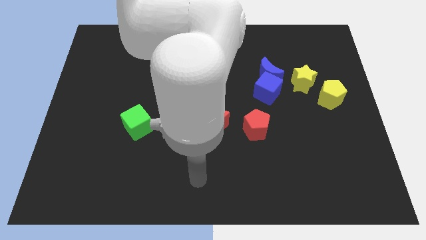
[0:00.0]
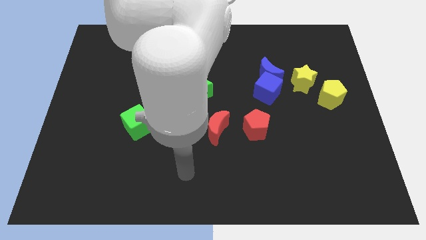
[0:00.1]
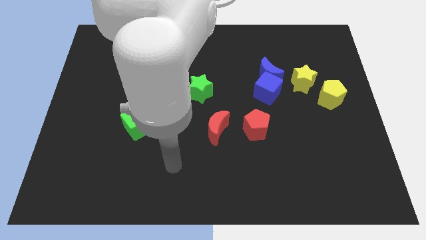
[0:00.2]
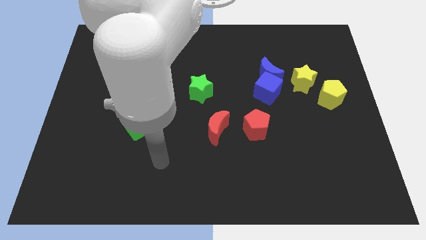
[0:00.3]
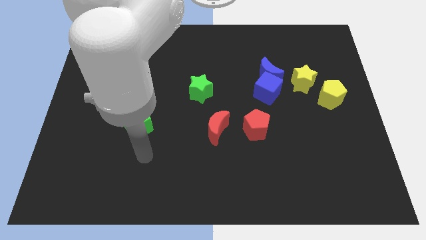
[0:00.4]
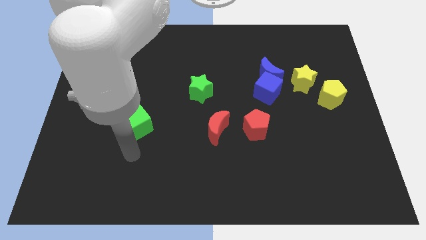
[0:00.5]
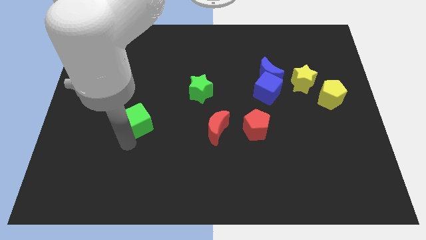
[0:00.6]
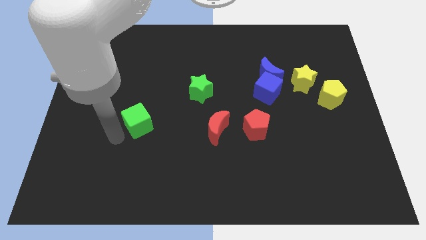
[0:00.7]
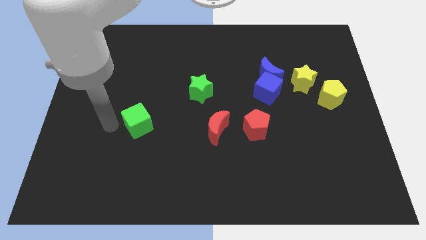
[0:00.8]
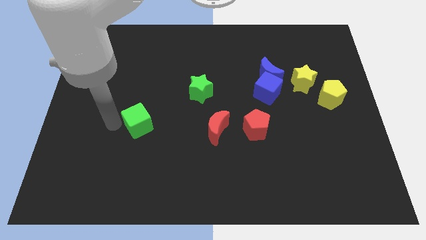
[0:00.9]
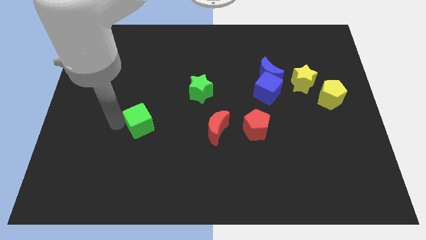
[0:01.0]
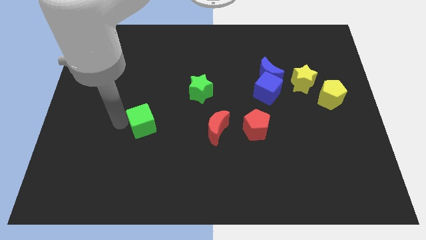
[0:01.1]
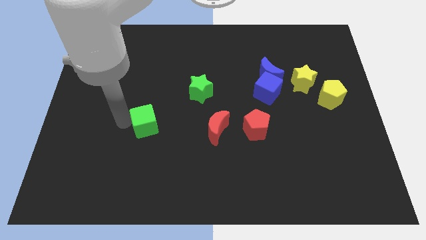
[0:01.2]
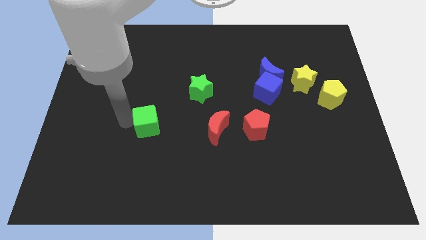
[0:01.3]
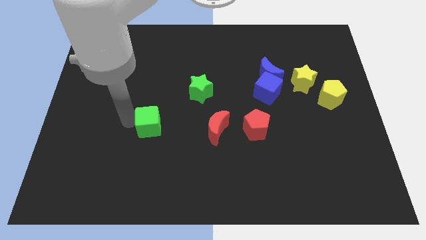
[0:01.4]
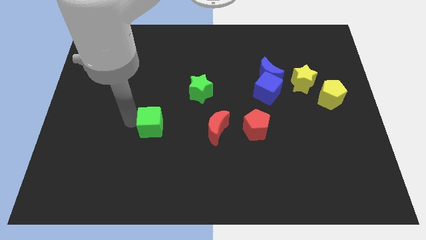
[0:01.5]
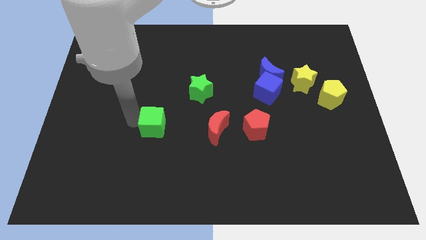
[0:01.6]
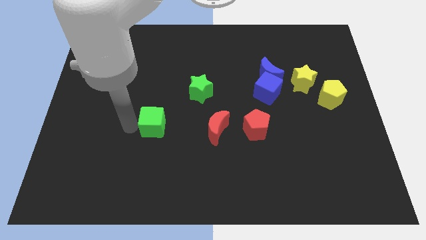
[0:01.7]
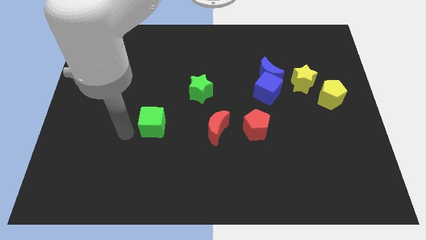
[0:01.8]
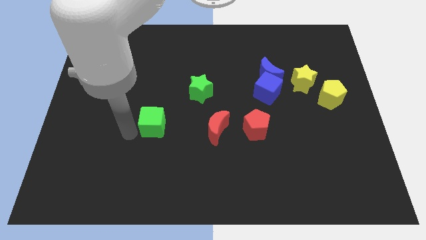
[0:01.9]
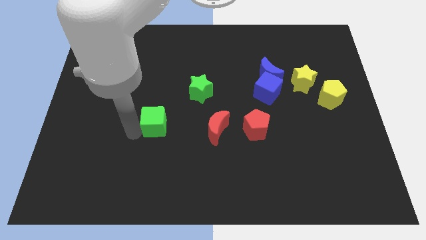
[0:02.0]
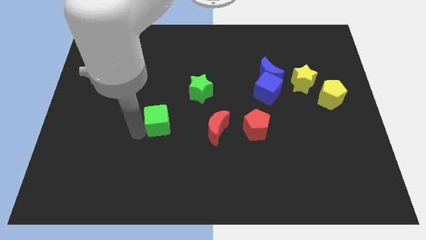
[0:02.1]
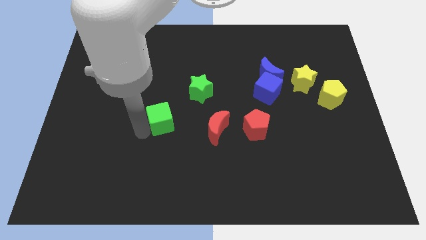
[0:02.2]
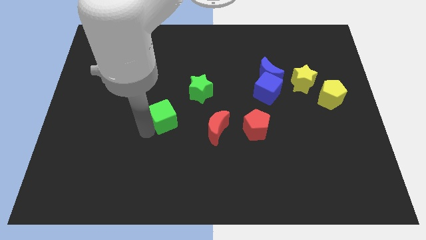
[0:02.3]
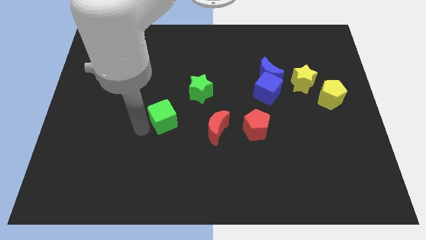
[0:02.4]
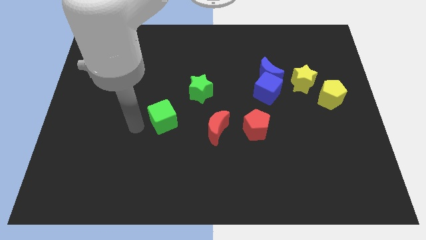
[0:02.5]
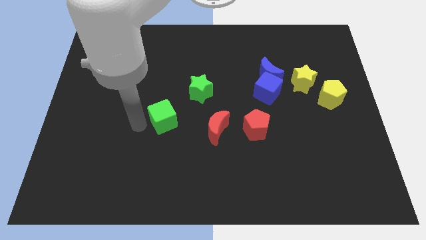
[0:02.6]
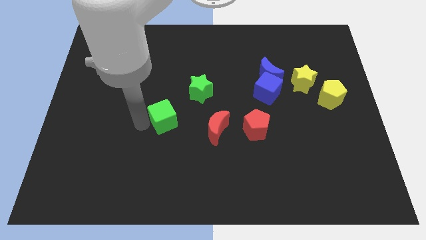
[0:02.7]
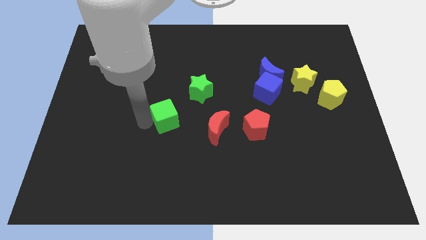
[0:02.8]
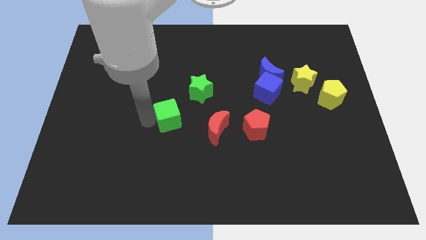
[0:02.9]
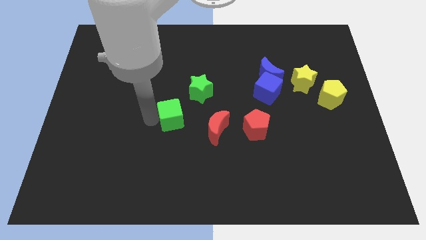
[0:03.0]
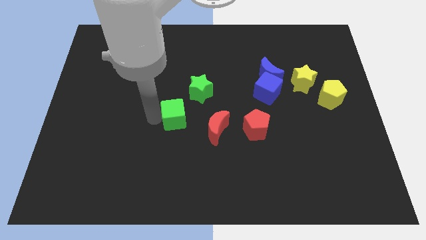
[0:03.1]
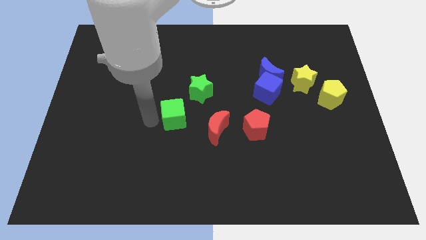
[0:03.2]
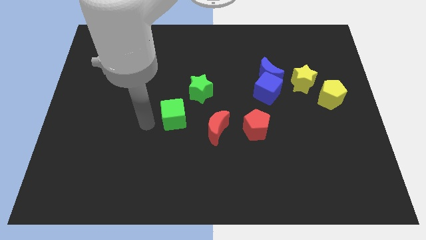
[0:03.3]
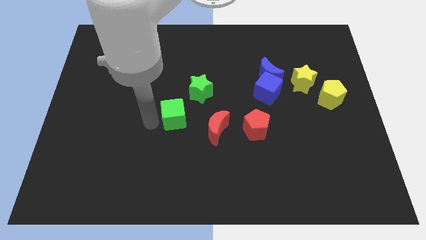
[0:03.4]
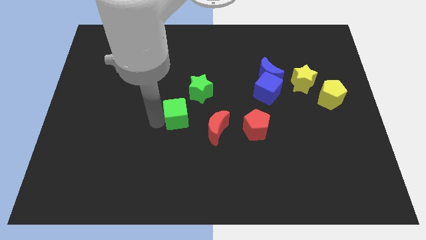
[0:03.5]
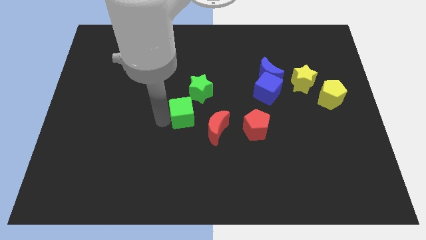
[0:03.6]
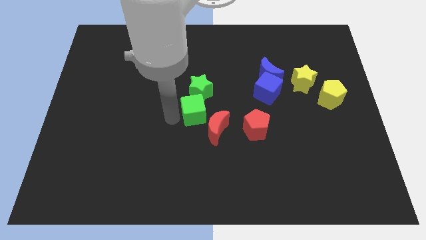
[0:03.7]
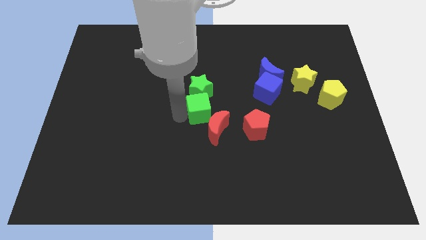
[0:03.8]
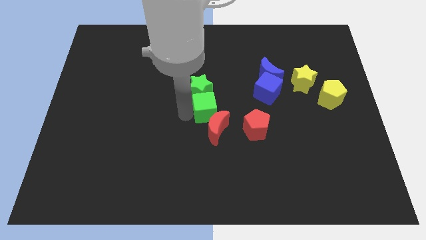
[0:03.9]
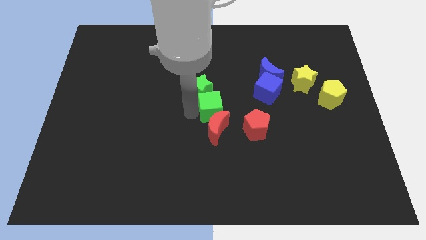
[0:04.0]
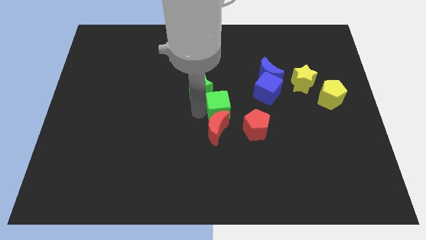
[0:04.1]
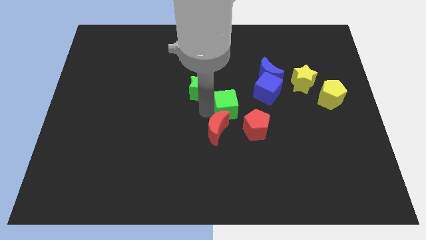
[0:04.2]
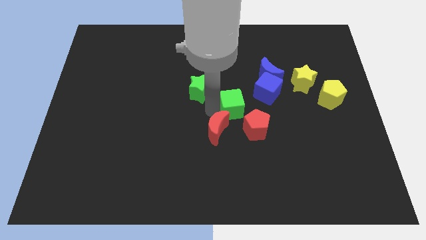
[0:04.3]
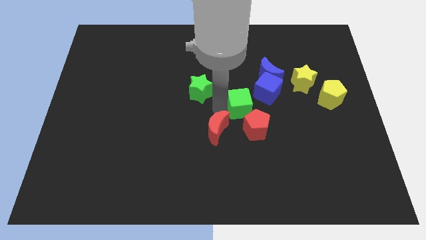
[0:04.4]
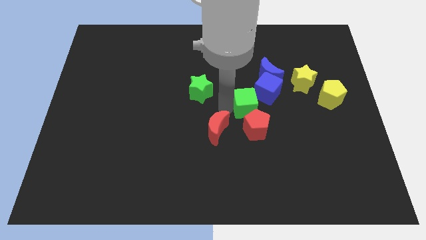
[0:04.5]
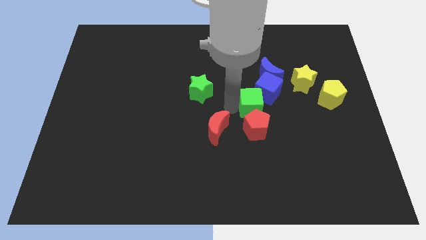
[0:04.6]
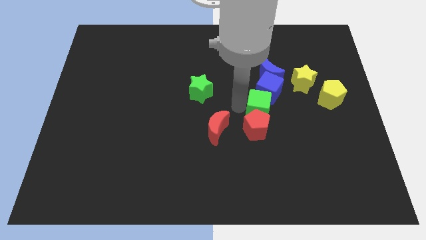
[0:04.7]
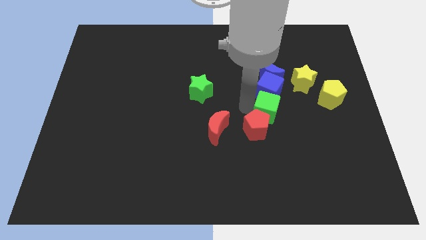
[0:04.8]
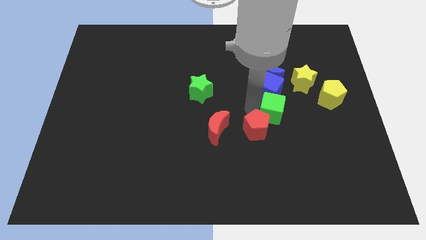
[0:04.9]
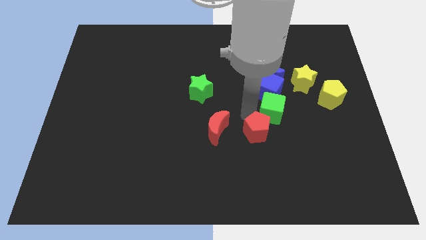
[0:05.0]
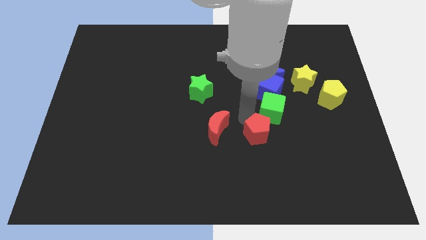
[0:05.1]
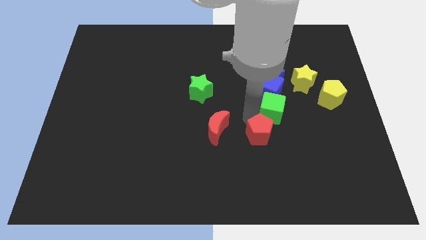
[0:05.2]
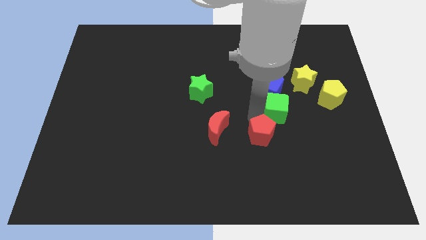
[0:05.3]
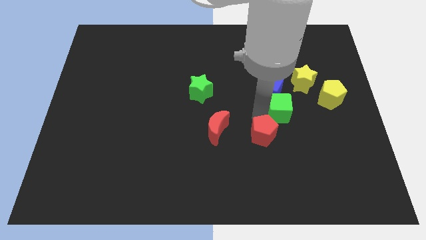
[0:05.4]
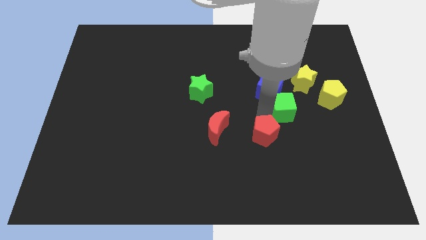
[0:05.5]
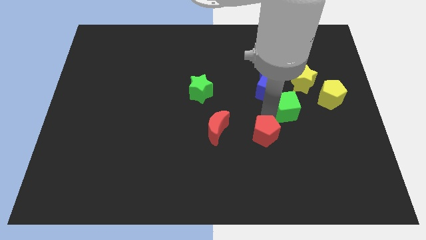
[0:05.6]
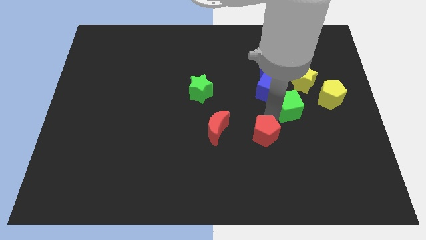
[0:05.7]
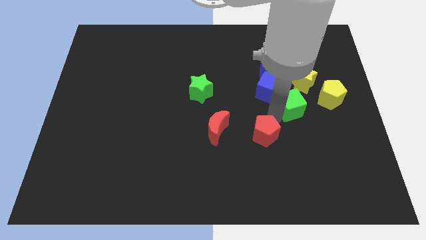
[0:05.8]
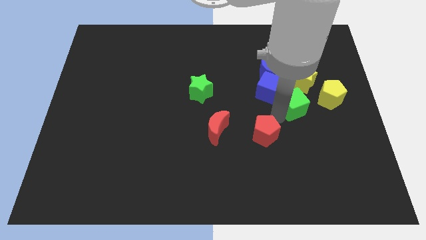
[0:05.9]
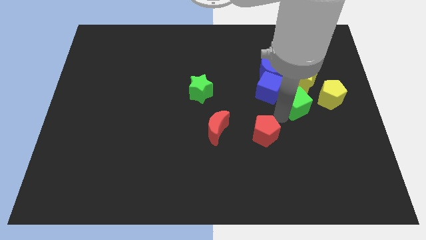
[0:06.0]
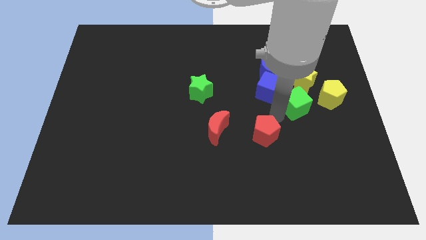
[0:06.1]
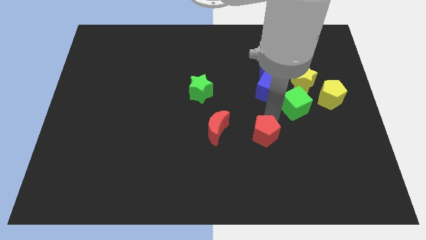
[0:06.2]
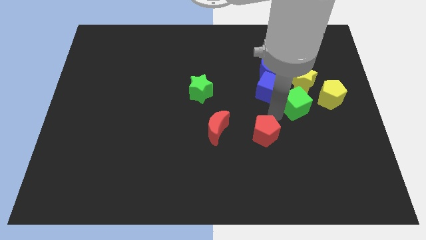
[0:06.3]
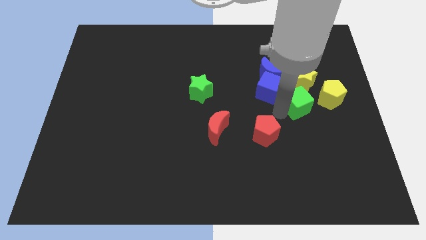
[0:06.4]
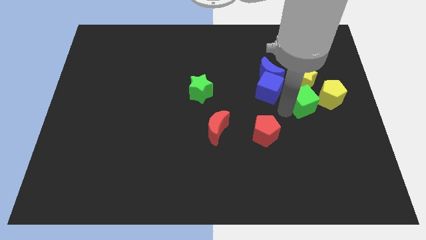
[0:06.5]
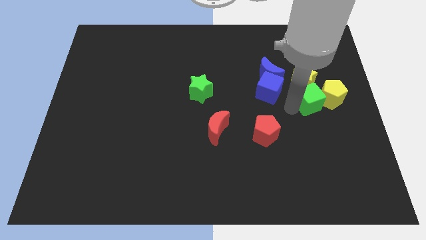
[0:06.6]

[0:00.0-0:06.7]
push the green cube close to the yellow pentagon
